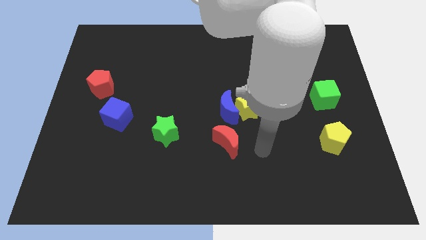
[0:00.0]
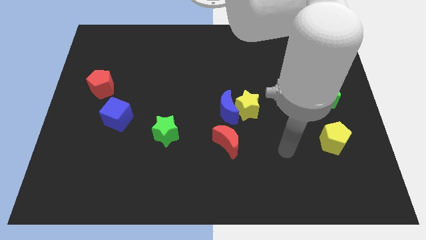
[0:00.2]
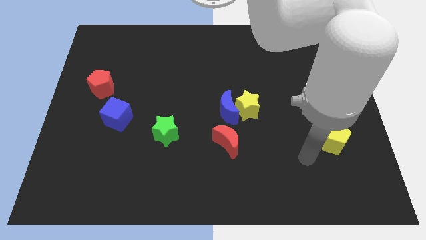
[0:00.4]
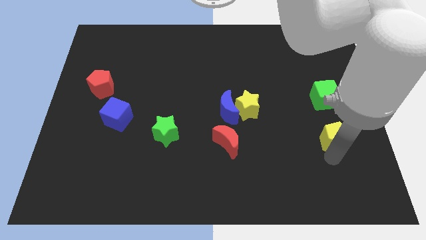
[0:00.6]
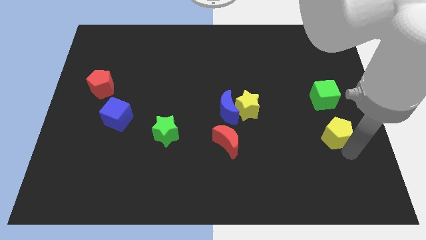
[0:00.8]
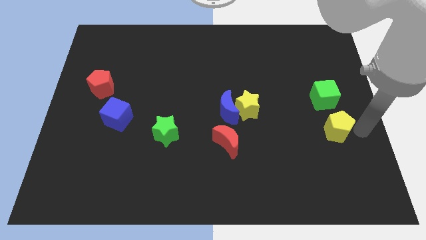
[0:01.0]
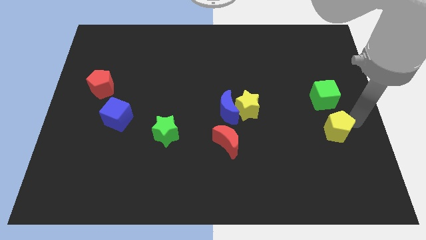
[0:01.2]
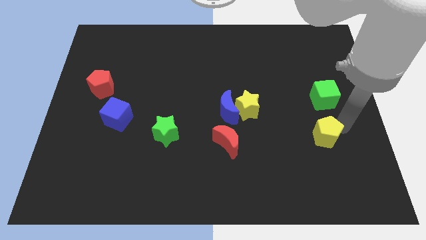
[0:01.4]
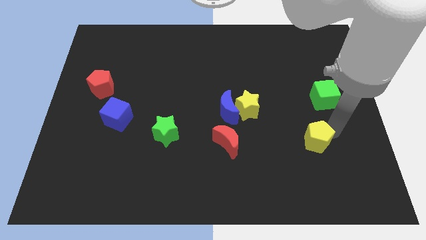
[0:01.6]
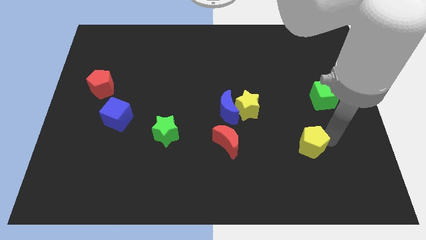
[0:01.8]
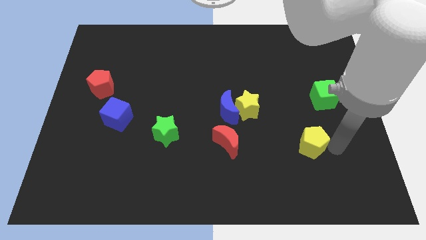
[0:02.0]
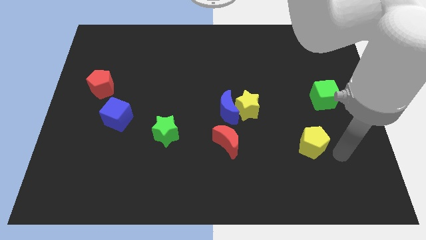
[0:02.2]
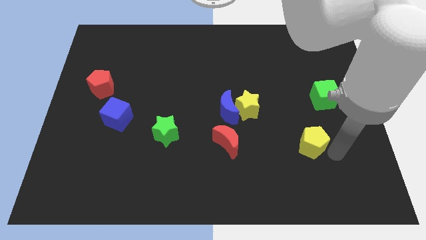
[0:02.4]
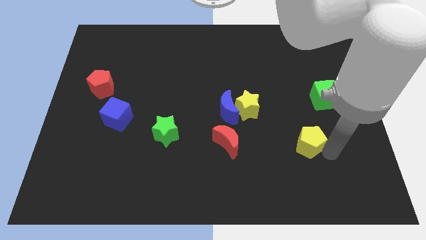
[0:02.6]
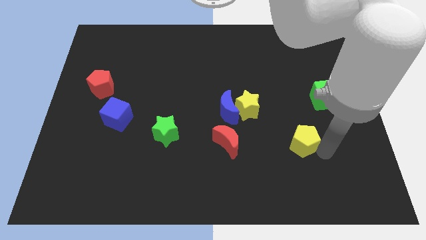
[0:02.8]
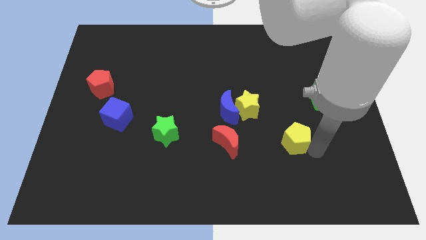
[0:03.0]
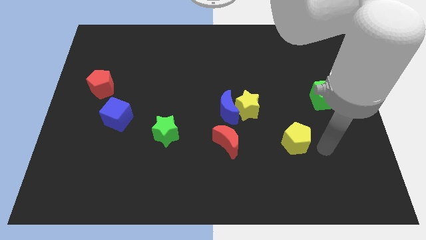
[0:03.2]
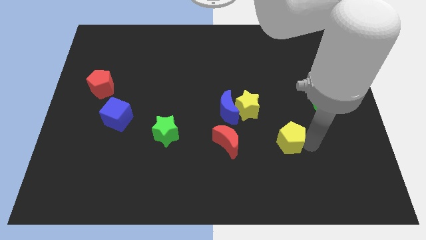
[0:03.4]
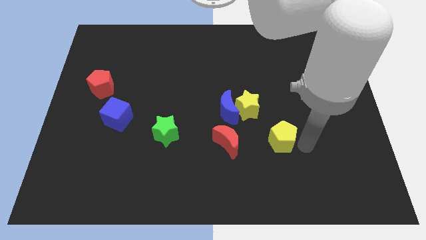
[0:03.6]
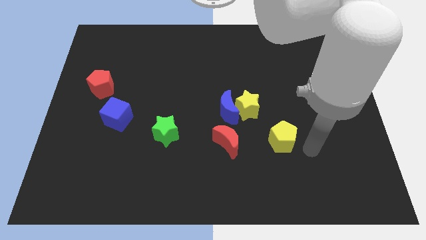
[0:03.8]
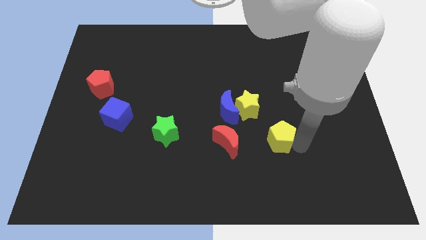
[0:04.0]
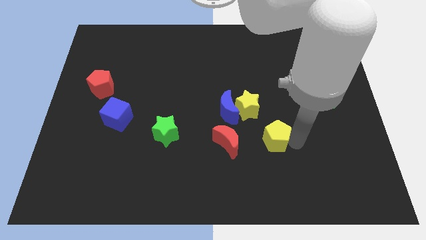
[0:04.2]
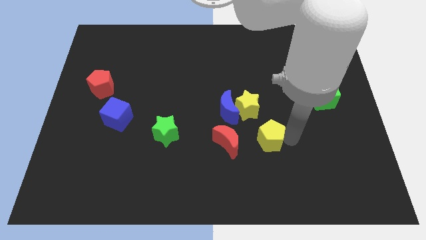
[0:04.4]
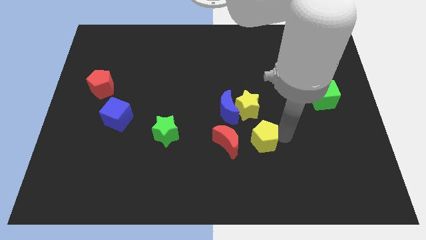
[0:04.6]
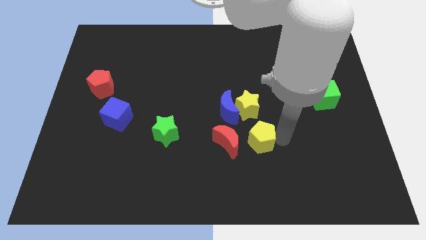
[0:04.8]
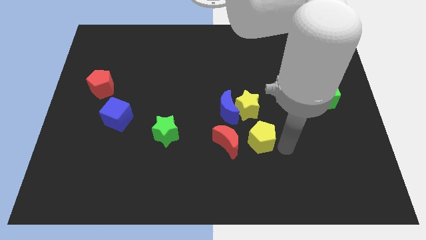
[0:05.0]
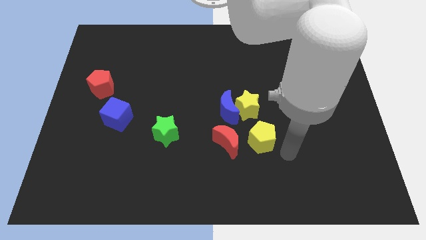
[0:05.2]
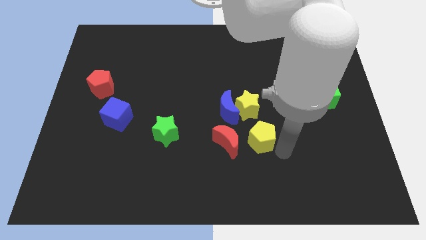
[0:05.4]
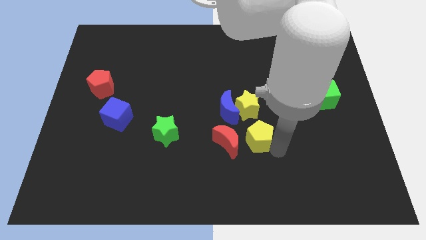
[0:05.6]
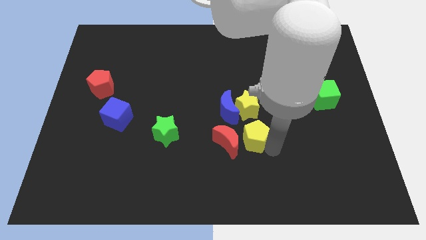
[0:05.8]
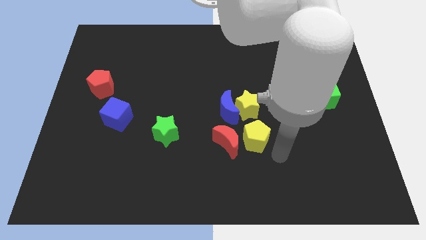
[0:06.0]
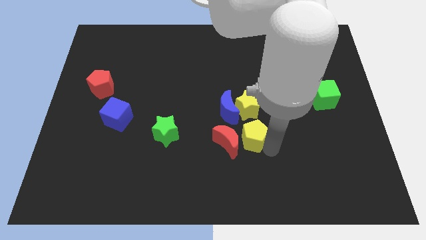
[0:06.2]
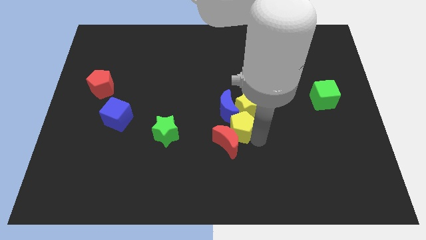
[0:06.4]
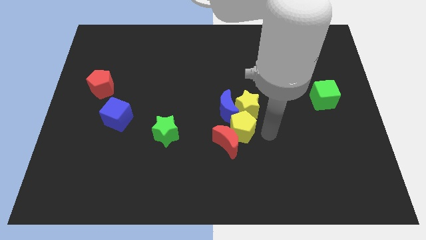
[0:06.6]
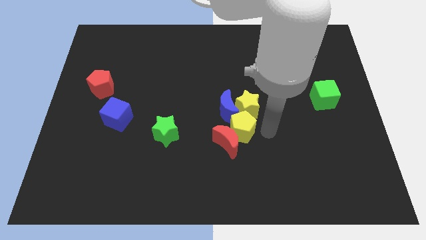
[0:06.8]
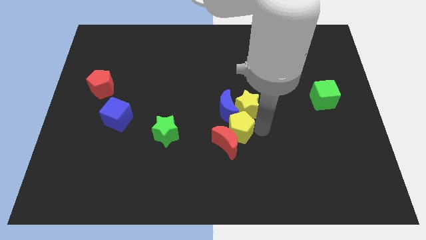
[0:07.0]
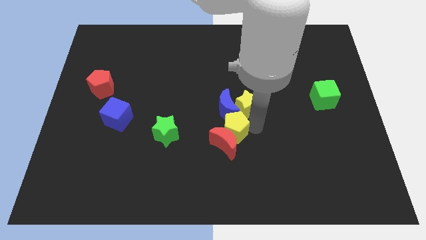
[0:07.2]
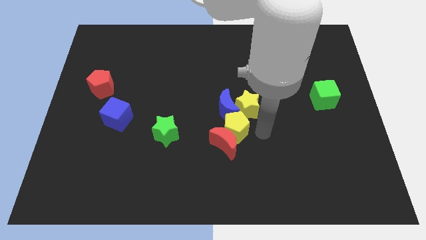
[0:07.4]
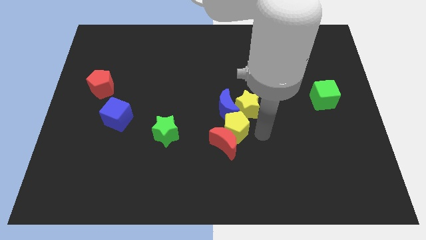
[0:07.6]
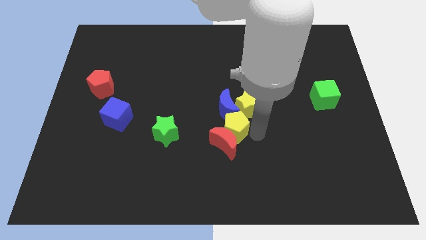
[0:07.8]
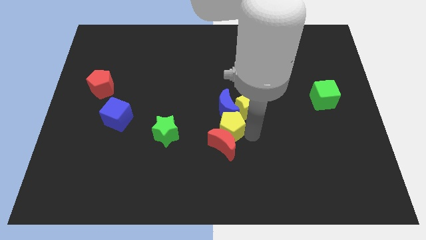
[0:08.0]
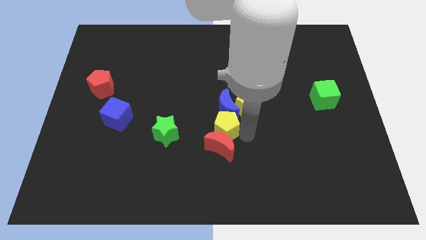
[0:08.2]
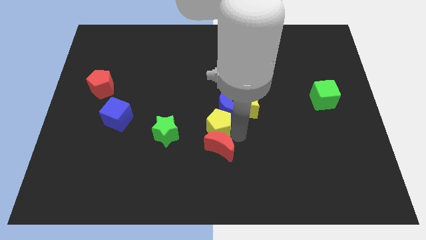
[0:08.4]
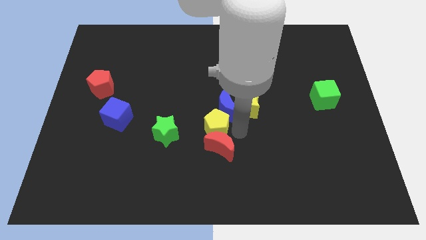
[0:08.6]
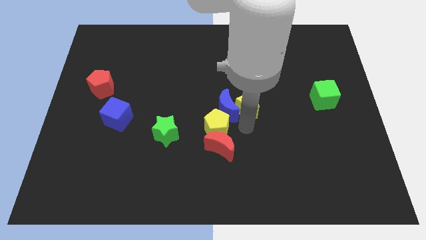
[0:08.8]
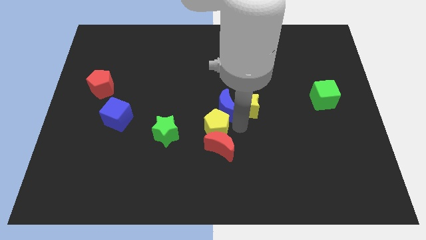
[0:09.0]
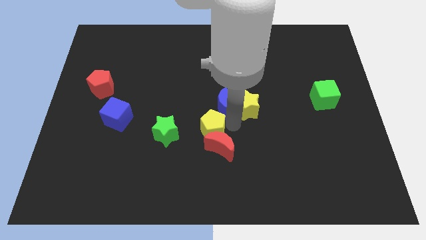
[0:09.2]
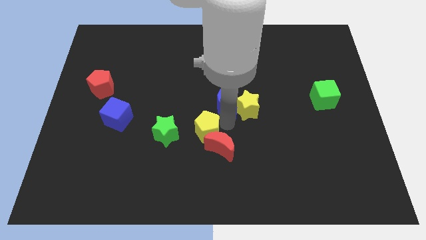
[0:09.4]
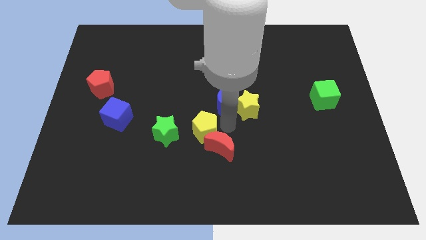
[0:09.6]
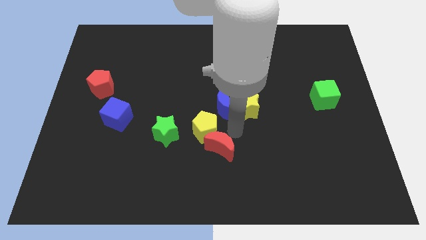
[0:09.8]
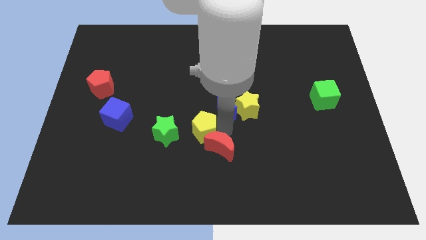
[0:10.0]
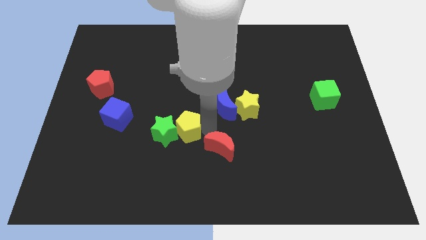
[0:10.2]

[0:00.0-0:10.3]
put the yellow pentagon towards the green star

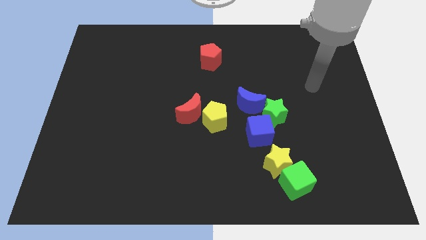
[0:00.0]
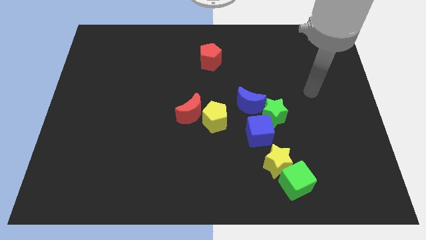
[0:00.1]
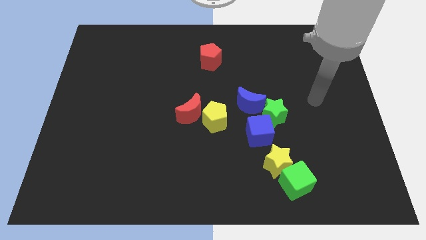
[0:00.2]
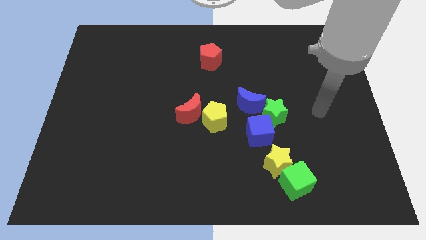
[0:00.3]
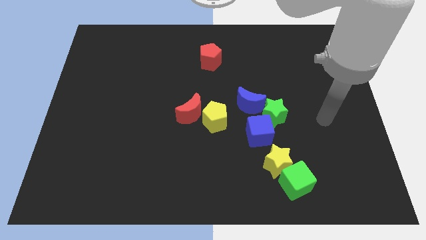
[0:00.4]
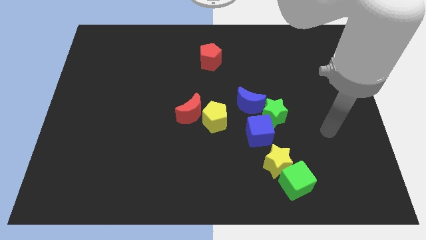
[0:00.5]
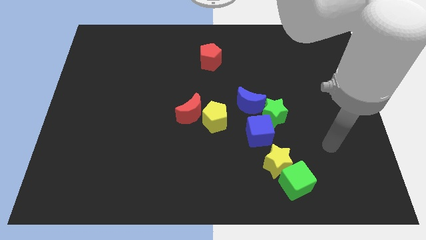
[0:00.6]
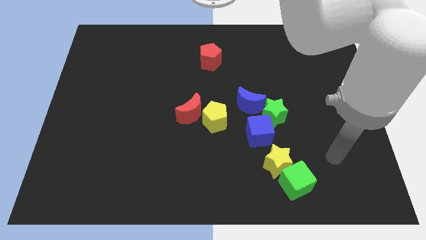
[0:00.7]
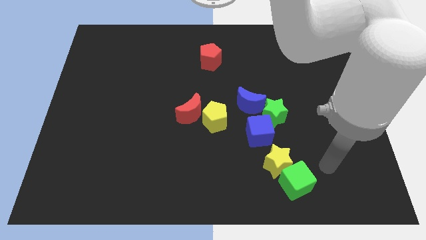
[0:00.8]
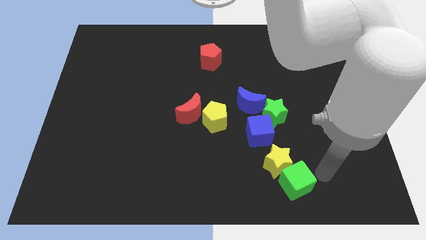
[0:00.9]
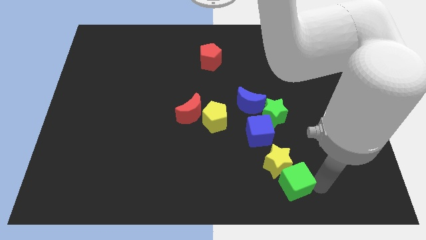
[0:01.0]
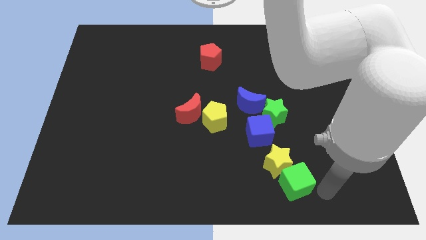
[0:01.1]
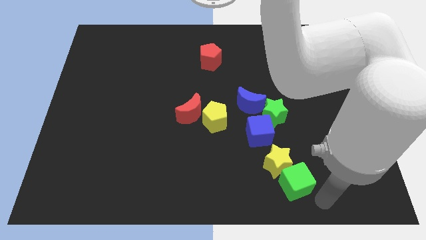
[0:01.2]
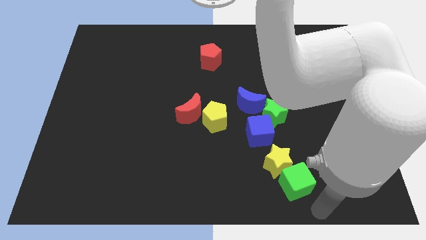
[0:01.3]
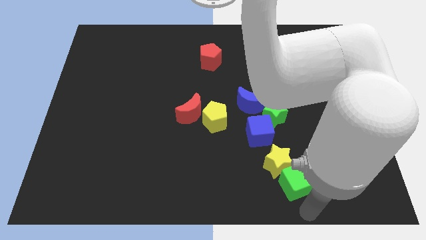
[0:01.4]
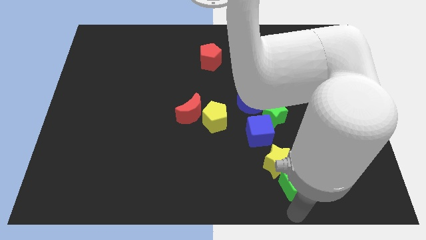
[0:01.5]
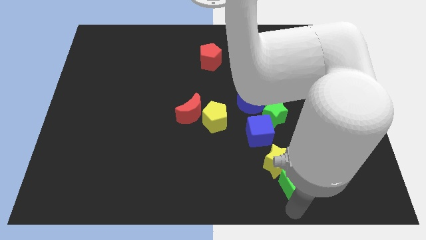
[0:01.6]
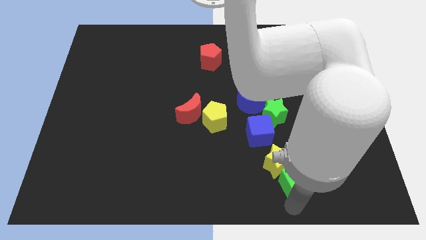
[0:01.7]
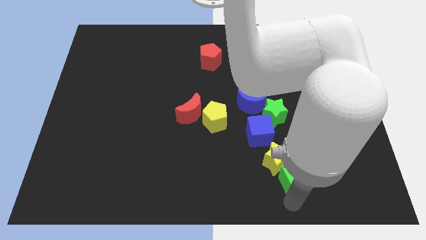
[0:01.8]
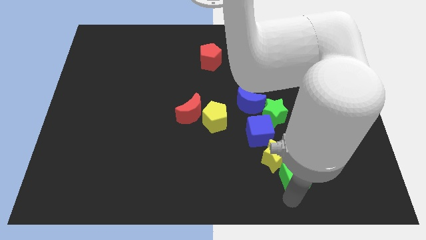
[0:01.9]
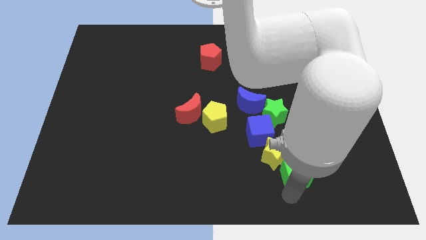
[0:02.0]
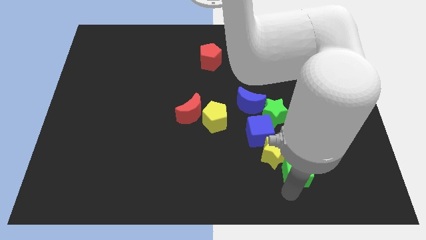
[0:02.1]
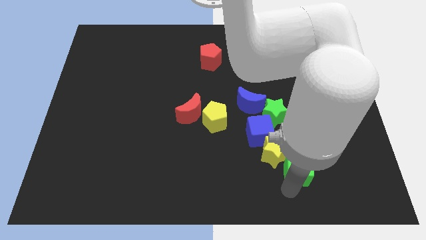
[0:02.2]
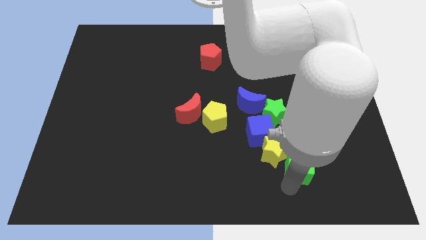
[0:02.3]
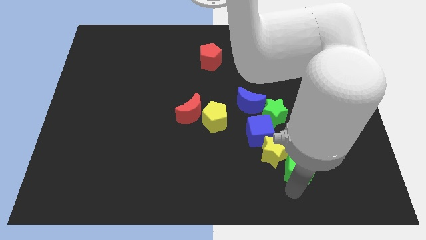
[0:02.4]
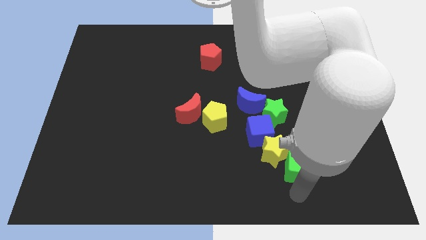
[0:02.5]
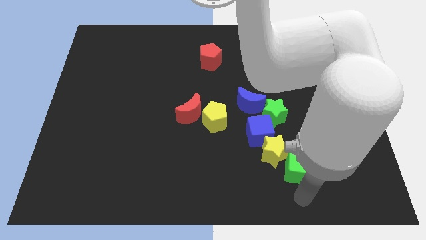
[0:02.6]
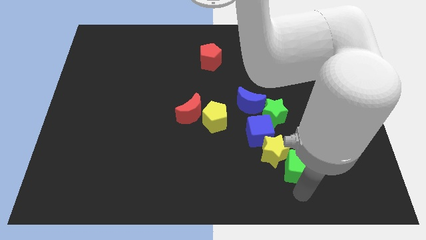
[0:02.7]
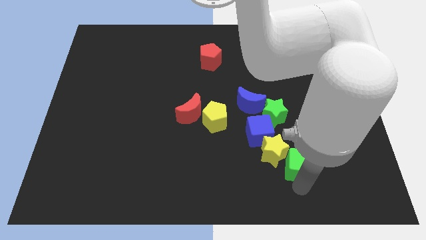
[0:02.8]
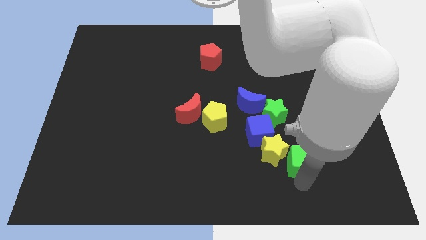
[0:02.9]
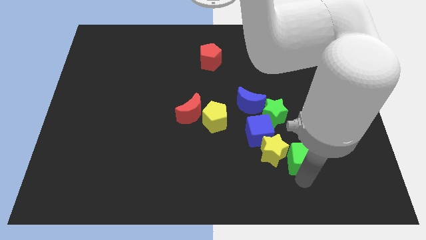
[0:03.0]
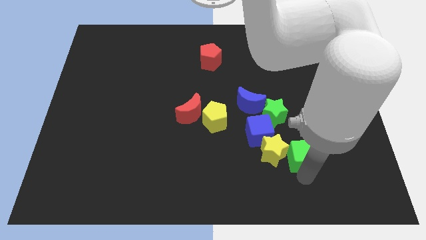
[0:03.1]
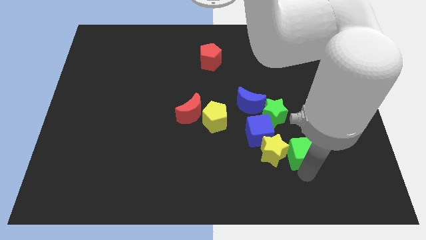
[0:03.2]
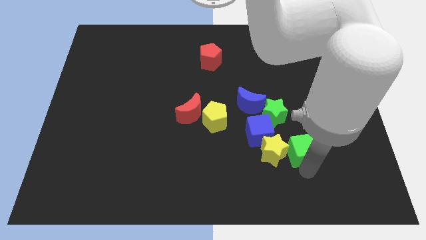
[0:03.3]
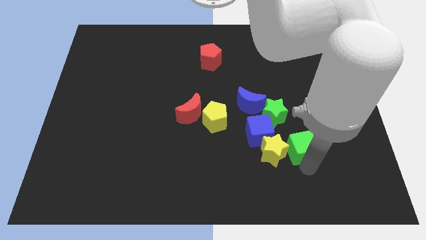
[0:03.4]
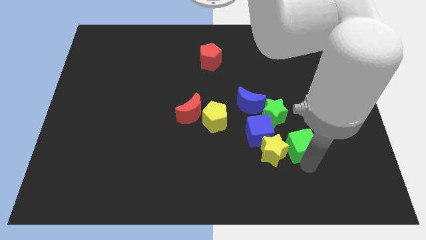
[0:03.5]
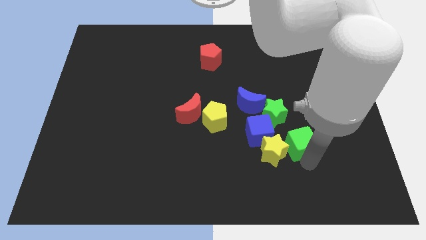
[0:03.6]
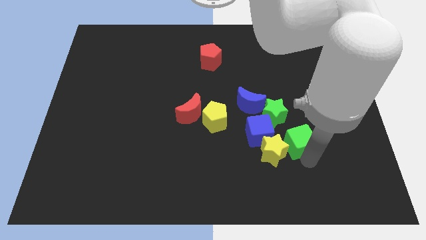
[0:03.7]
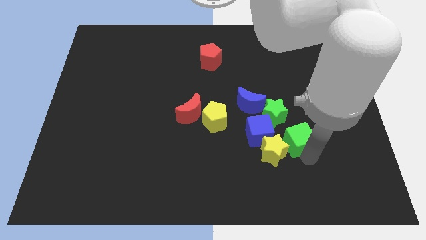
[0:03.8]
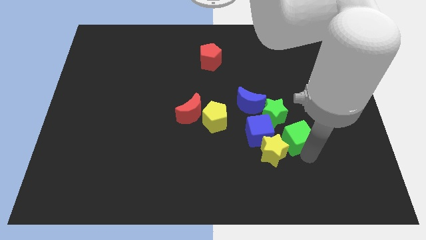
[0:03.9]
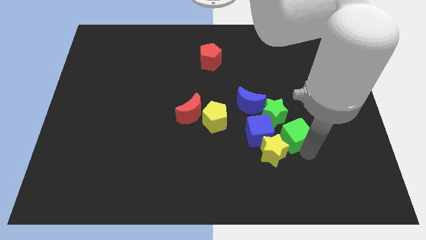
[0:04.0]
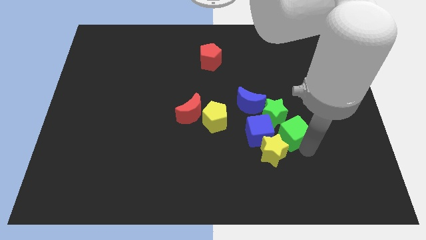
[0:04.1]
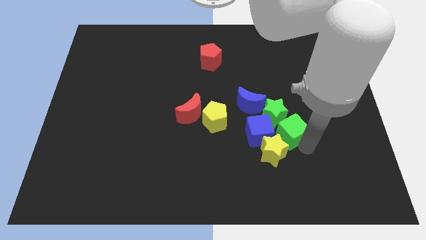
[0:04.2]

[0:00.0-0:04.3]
push the green cube close to the green star
